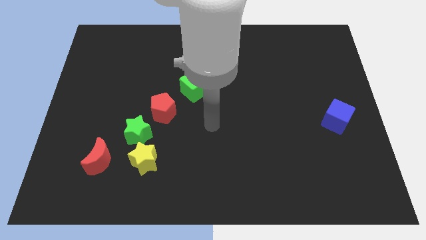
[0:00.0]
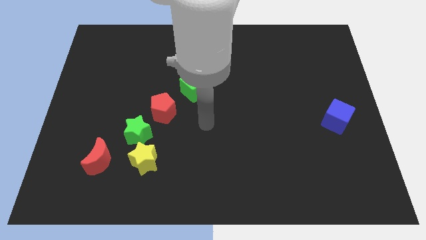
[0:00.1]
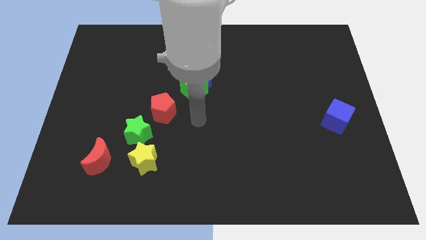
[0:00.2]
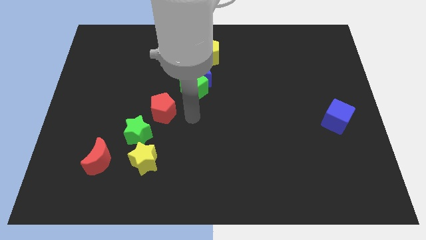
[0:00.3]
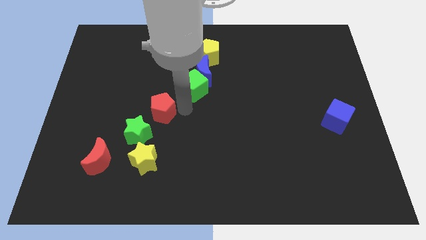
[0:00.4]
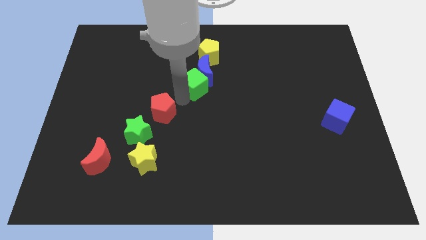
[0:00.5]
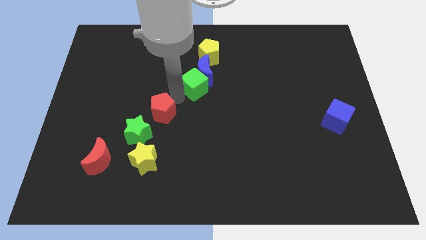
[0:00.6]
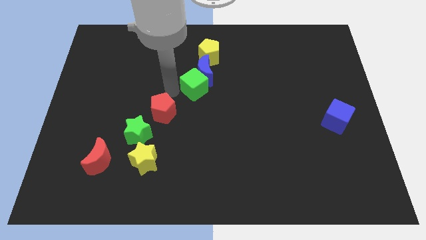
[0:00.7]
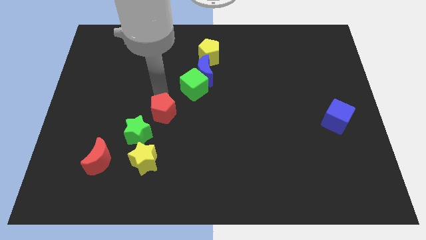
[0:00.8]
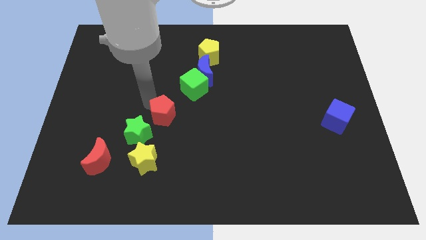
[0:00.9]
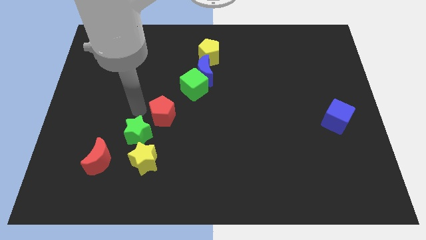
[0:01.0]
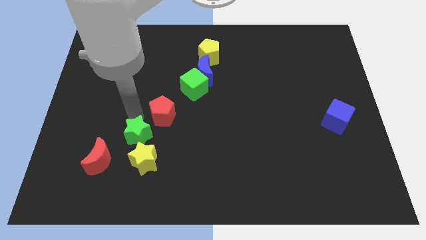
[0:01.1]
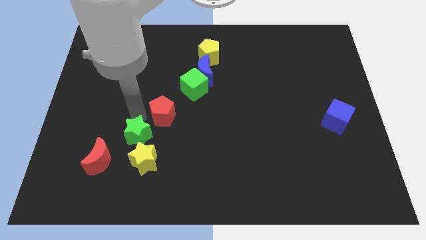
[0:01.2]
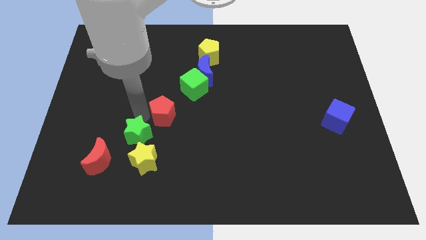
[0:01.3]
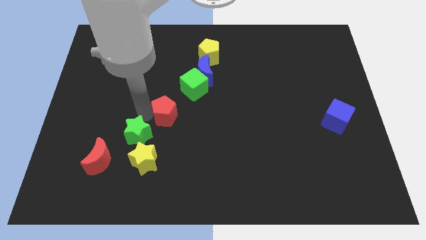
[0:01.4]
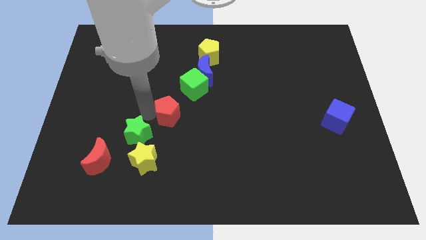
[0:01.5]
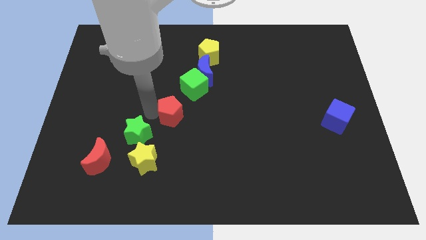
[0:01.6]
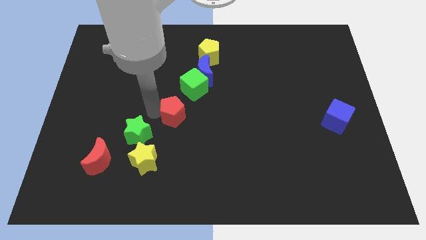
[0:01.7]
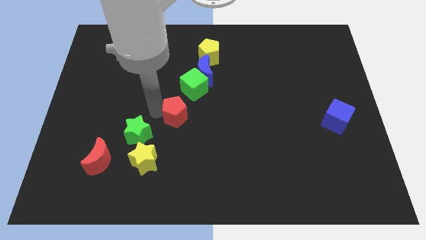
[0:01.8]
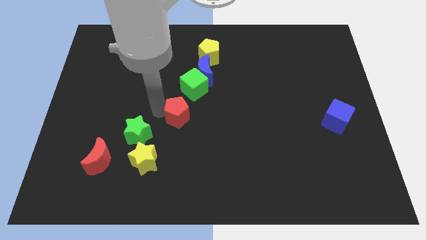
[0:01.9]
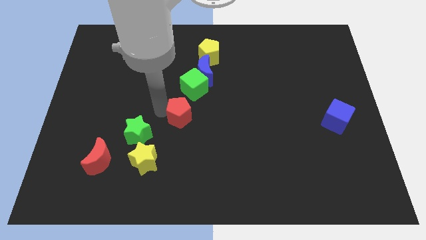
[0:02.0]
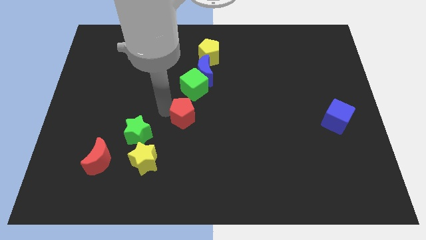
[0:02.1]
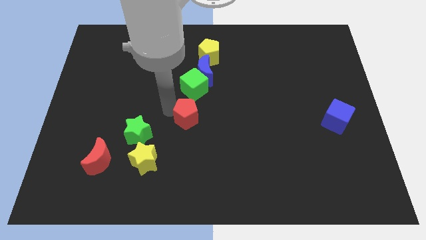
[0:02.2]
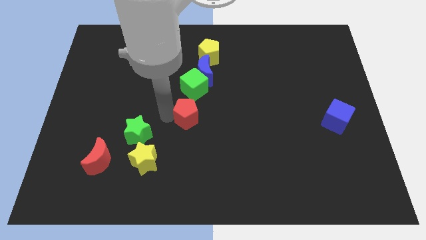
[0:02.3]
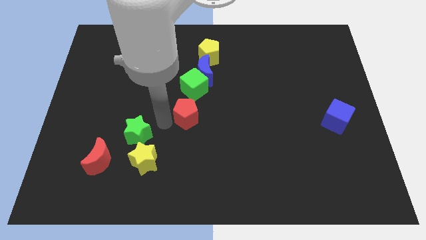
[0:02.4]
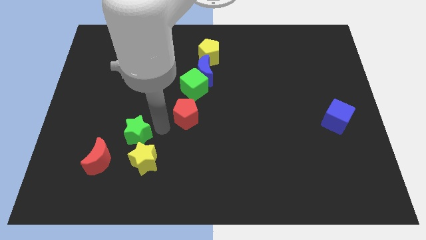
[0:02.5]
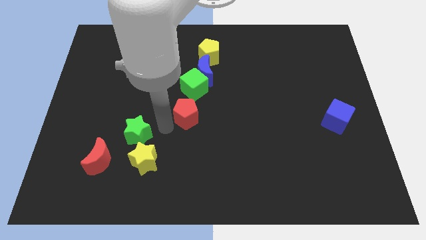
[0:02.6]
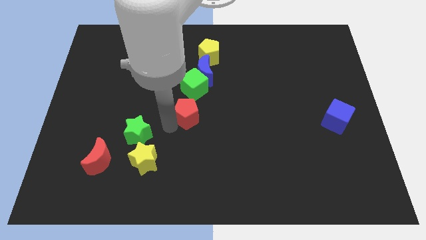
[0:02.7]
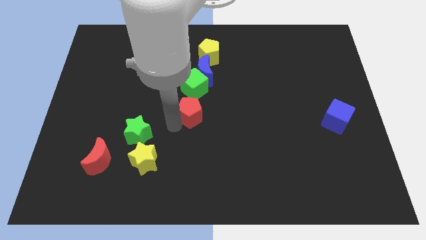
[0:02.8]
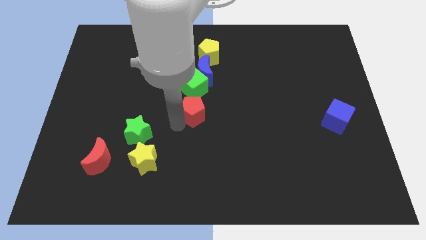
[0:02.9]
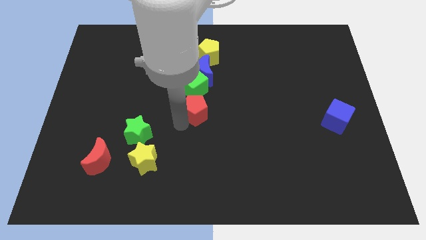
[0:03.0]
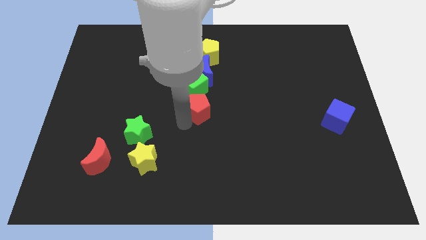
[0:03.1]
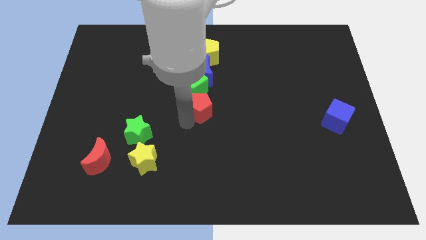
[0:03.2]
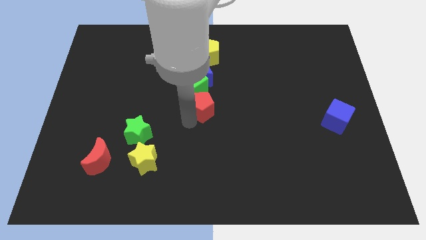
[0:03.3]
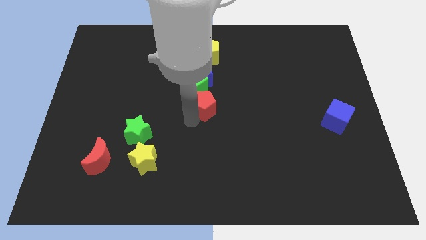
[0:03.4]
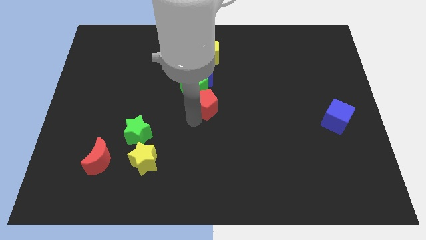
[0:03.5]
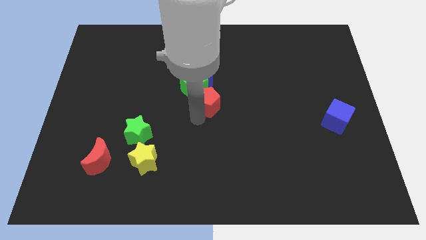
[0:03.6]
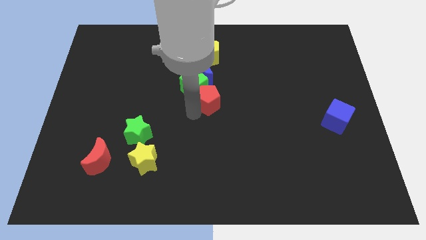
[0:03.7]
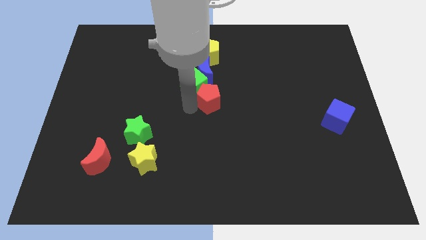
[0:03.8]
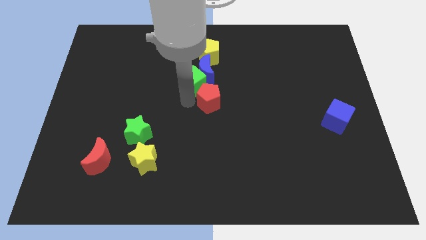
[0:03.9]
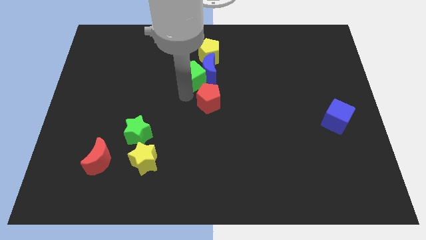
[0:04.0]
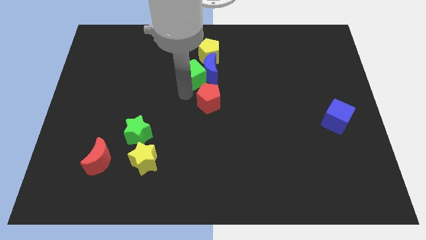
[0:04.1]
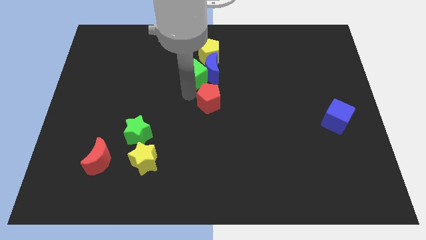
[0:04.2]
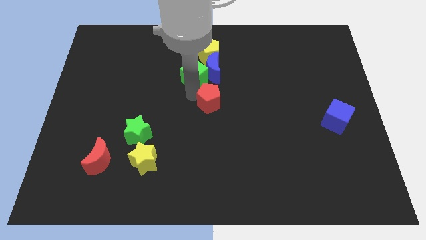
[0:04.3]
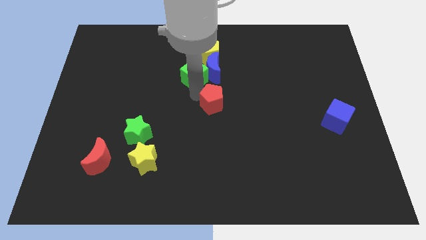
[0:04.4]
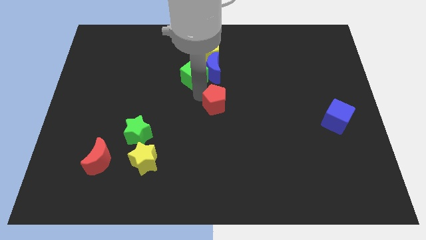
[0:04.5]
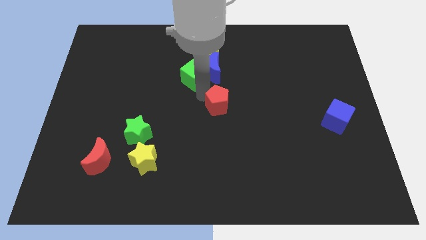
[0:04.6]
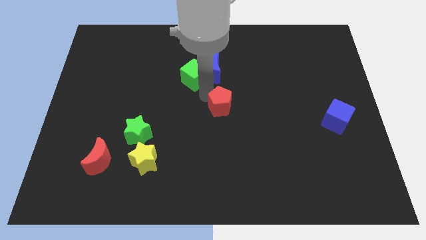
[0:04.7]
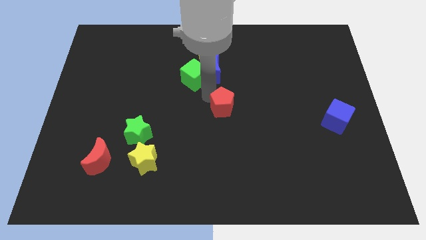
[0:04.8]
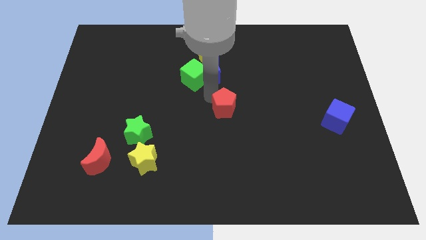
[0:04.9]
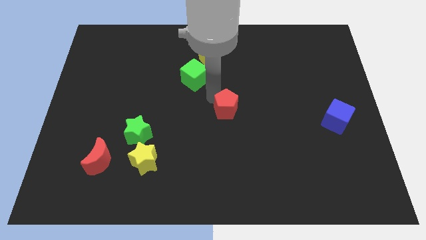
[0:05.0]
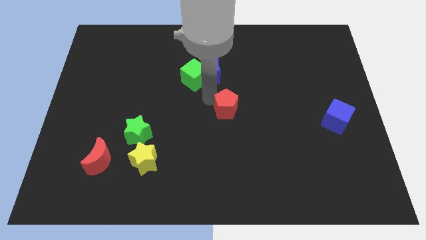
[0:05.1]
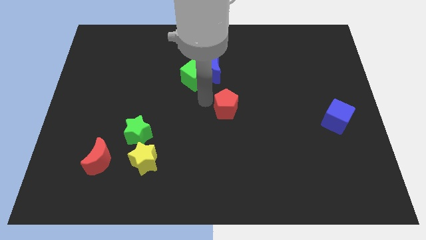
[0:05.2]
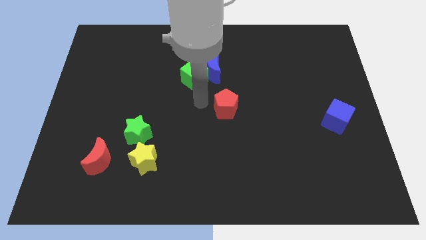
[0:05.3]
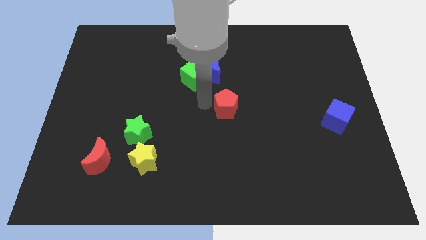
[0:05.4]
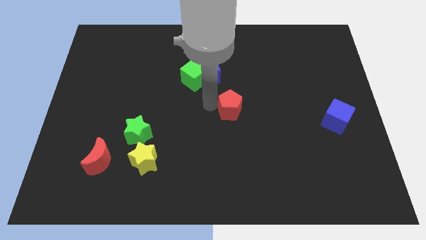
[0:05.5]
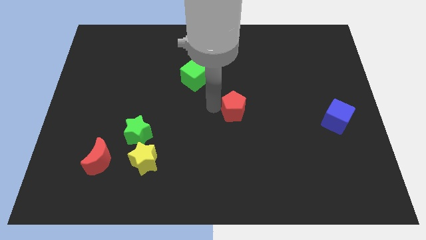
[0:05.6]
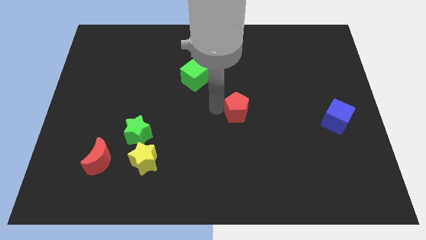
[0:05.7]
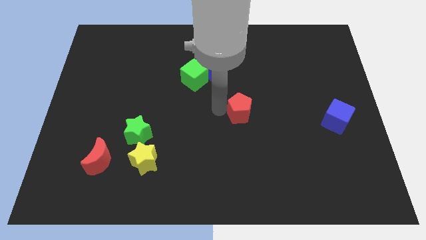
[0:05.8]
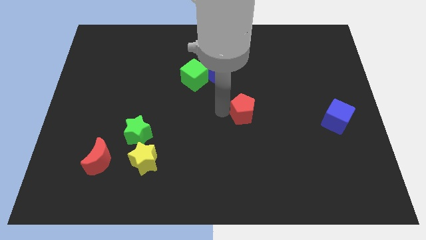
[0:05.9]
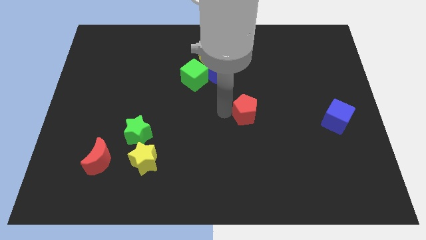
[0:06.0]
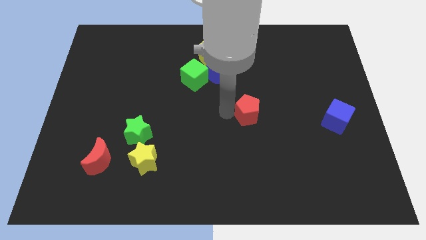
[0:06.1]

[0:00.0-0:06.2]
push the red pentagon right

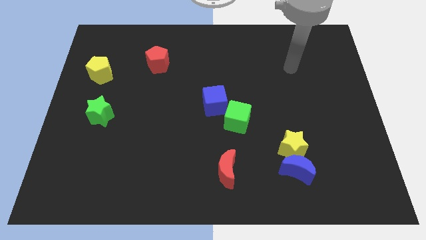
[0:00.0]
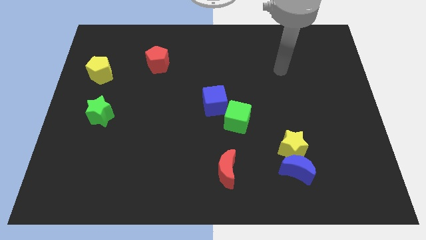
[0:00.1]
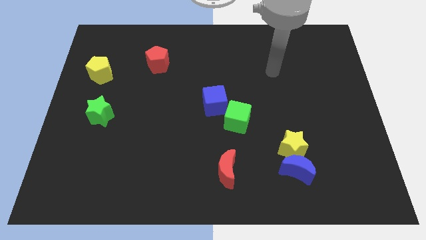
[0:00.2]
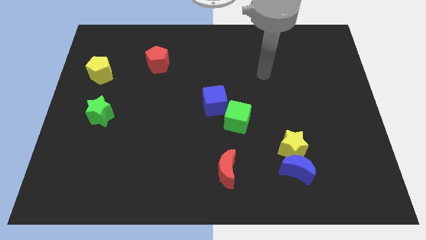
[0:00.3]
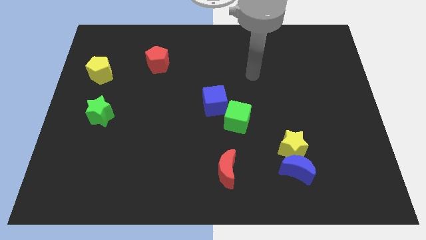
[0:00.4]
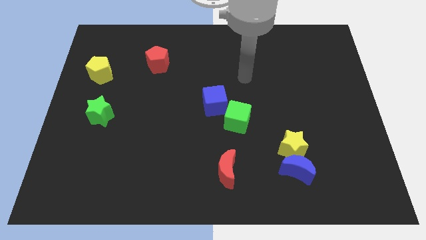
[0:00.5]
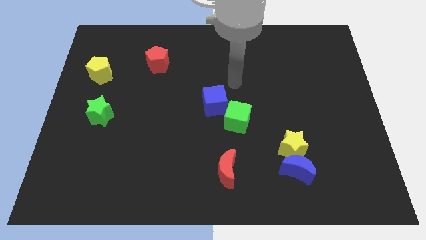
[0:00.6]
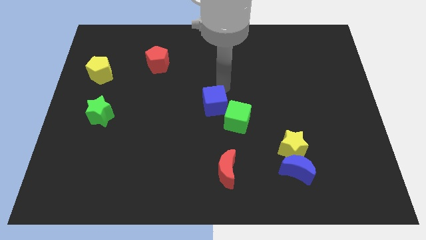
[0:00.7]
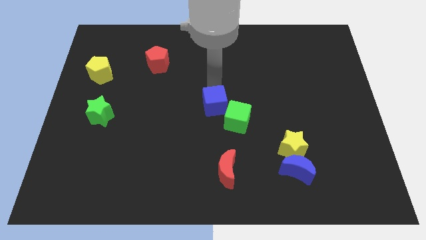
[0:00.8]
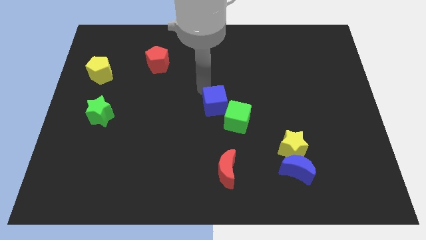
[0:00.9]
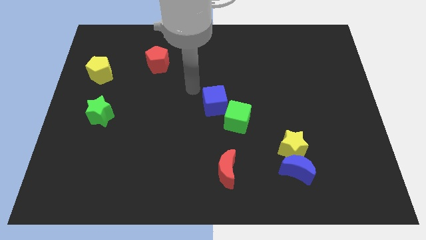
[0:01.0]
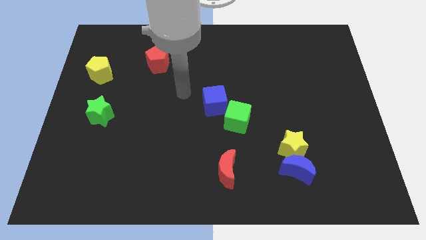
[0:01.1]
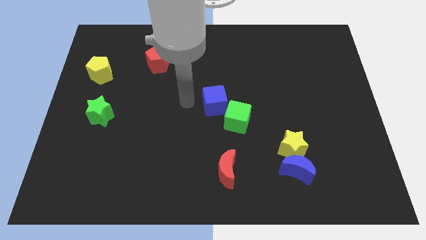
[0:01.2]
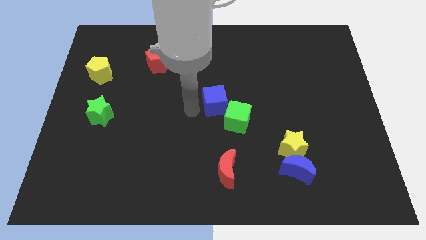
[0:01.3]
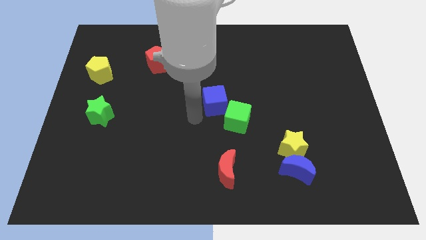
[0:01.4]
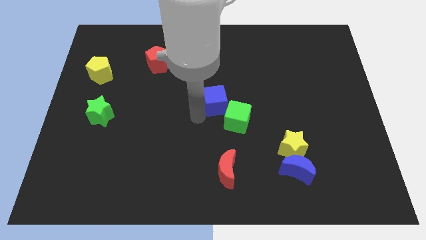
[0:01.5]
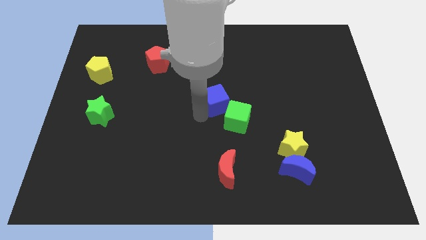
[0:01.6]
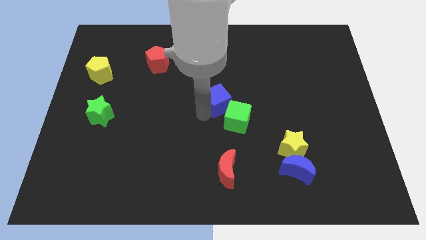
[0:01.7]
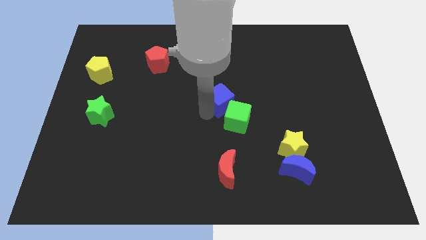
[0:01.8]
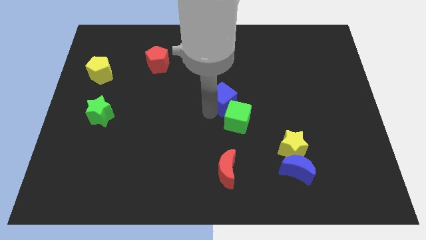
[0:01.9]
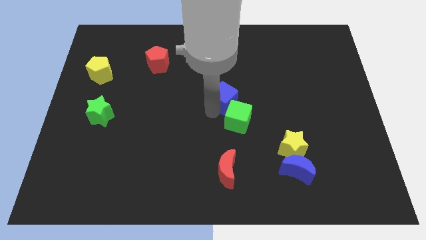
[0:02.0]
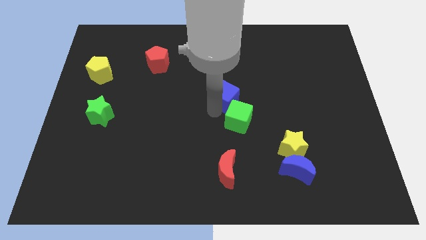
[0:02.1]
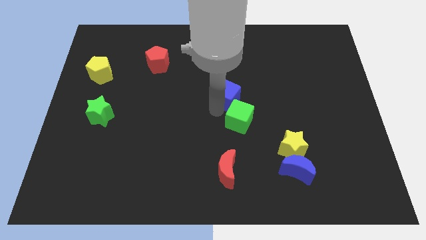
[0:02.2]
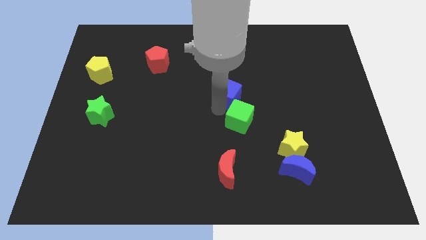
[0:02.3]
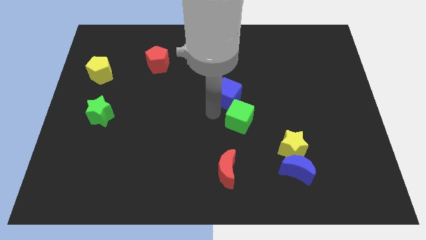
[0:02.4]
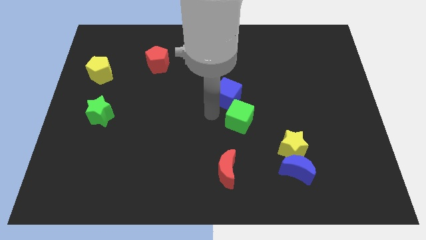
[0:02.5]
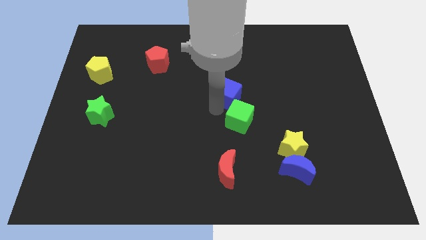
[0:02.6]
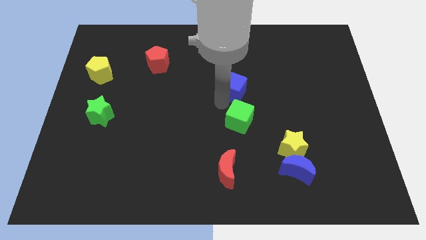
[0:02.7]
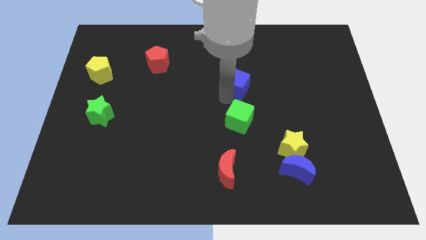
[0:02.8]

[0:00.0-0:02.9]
push the blue cube diagonally upwards and to the right a little bit
